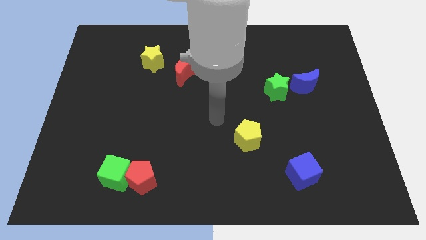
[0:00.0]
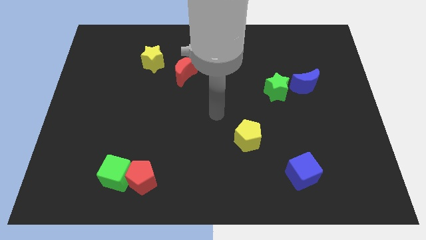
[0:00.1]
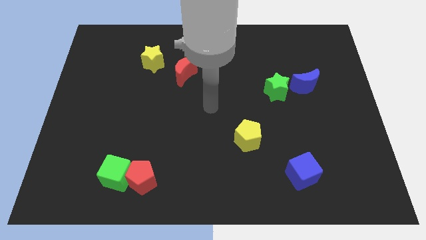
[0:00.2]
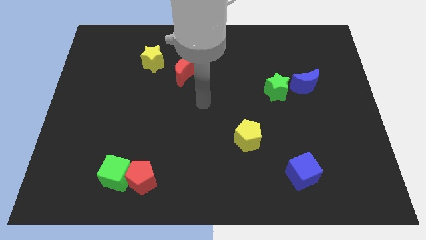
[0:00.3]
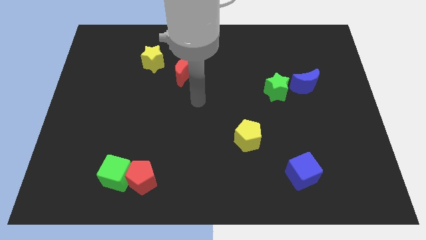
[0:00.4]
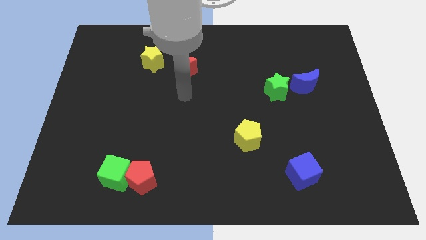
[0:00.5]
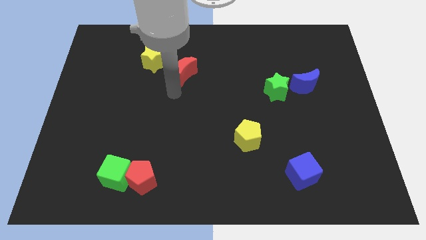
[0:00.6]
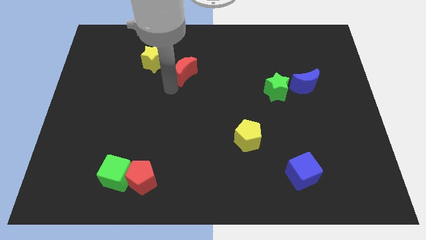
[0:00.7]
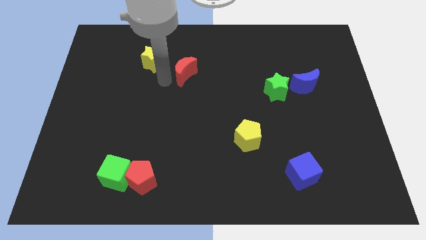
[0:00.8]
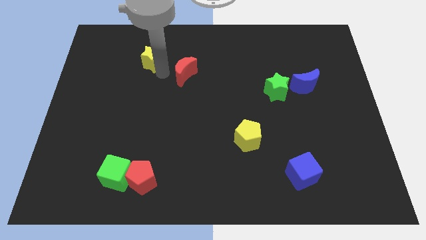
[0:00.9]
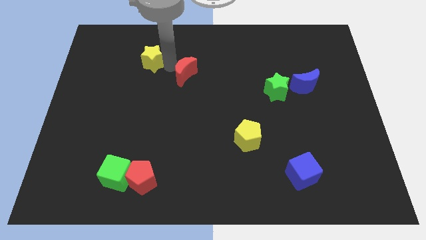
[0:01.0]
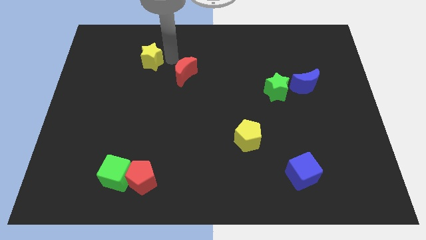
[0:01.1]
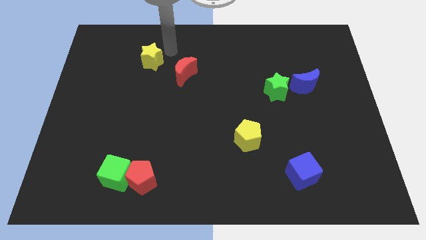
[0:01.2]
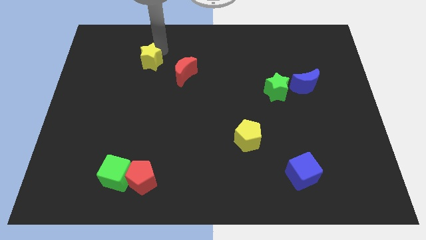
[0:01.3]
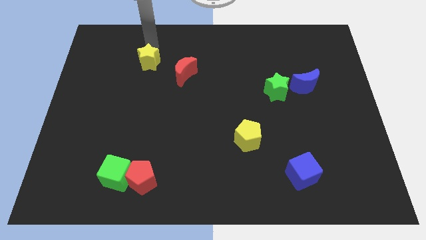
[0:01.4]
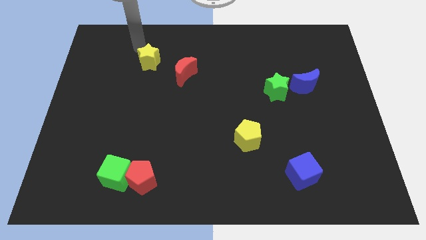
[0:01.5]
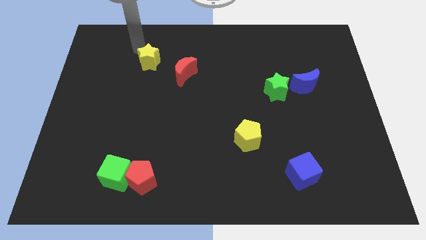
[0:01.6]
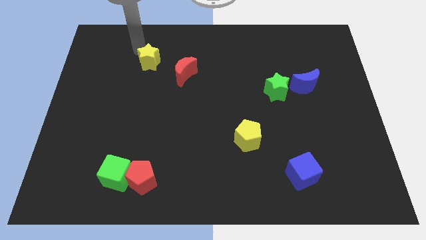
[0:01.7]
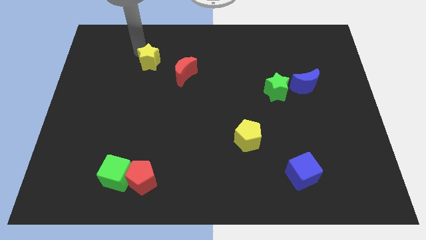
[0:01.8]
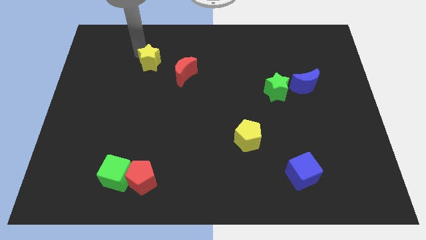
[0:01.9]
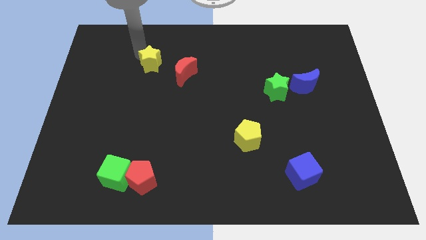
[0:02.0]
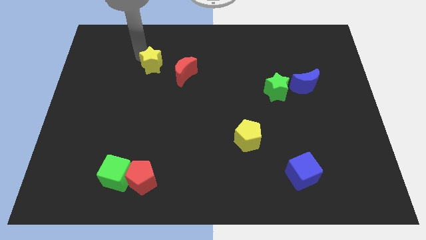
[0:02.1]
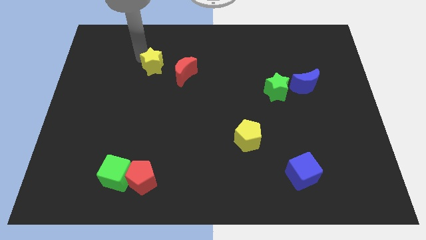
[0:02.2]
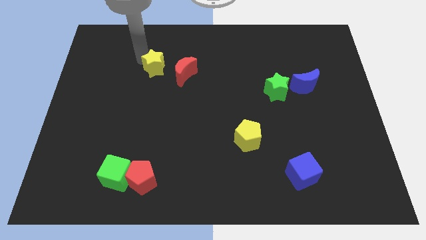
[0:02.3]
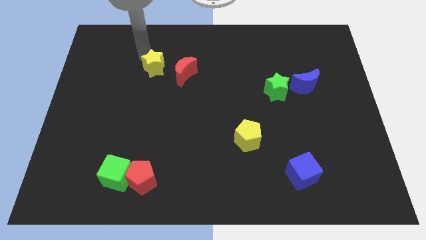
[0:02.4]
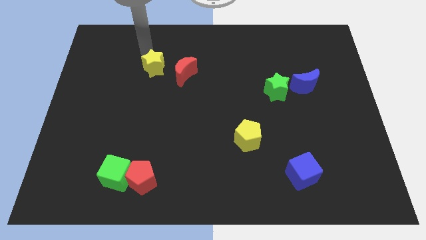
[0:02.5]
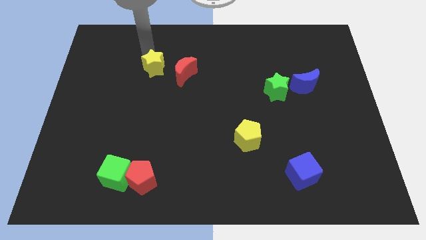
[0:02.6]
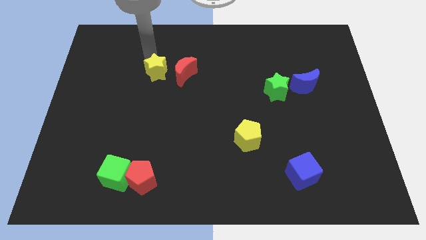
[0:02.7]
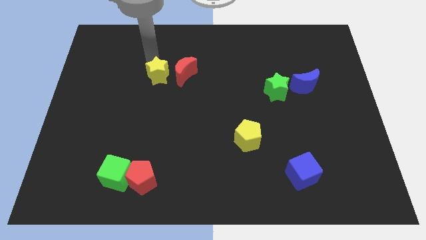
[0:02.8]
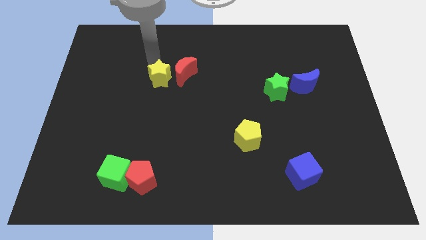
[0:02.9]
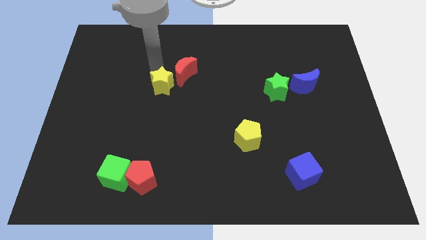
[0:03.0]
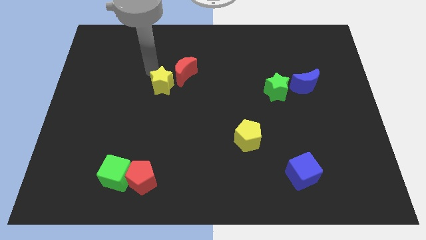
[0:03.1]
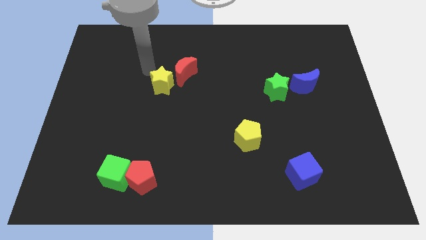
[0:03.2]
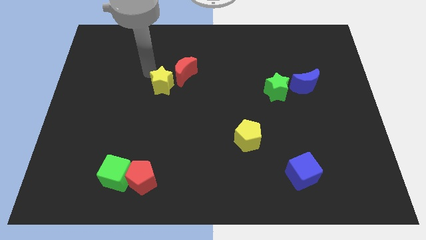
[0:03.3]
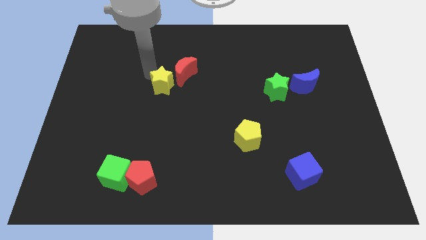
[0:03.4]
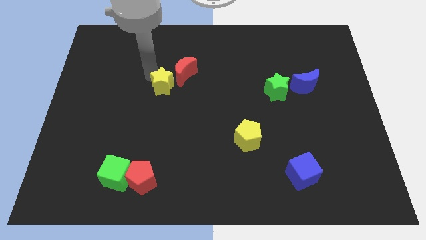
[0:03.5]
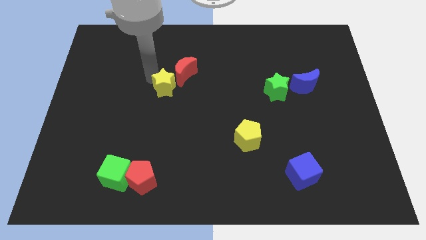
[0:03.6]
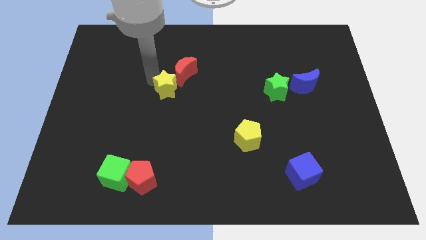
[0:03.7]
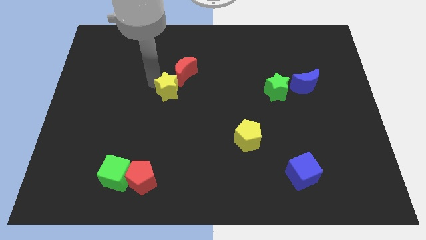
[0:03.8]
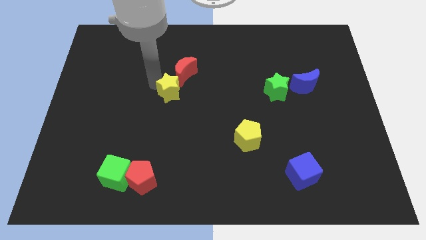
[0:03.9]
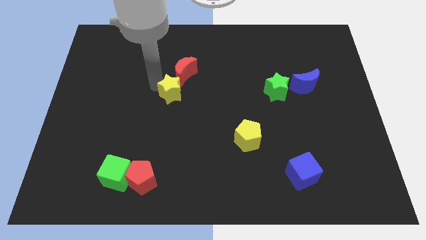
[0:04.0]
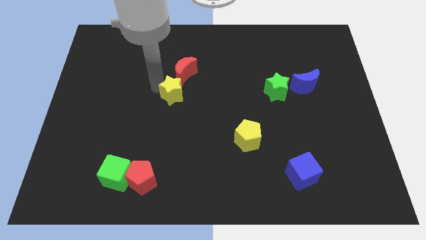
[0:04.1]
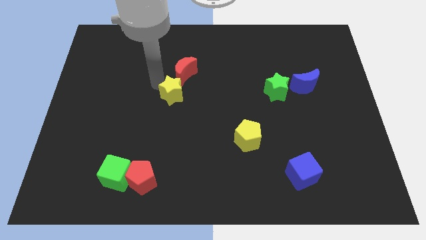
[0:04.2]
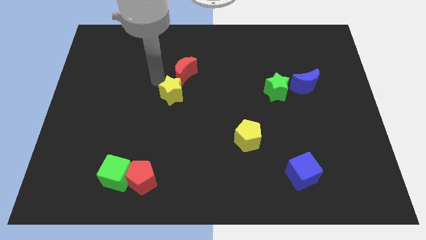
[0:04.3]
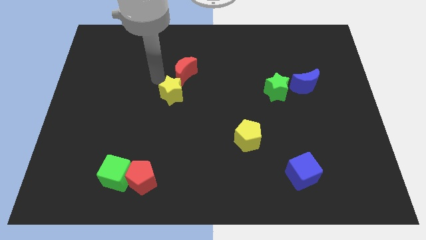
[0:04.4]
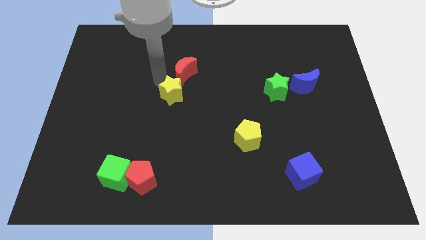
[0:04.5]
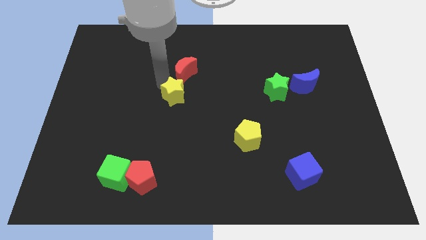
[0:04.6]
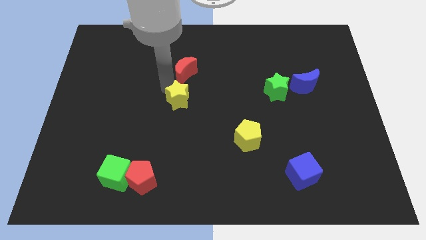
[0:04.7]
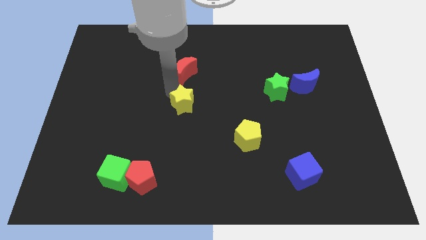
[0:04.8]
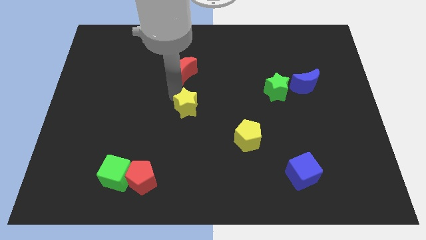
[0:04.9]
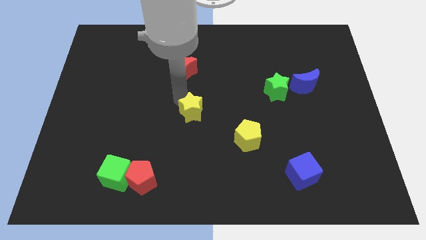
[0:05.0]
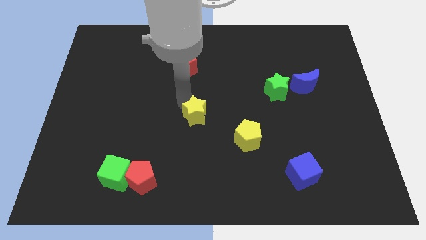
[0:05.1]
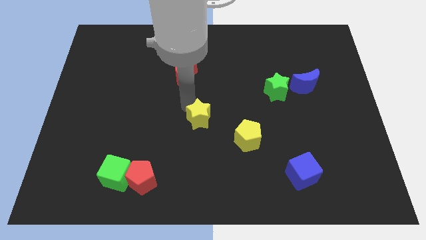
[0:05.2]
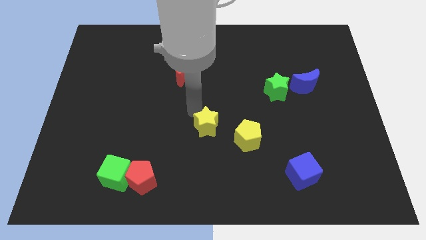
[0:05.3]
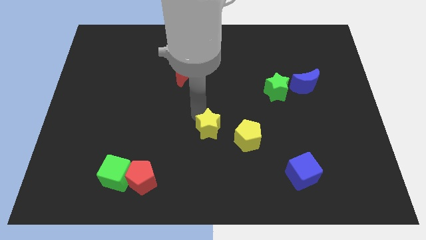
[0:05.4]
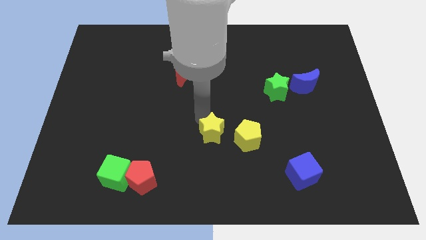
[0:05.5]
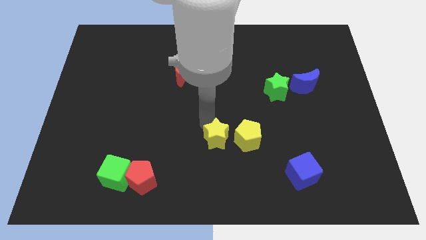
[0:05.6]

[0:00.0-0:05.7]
slide the yellow star diagonally down and to the left of the yellow pentagon

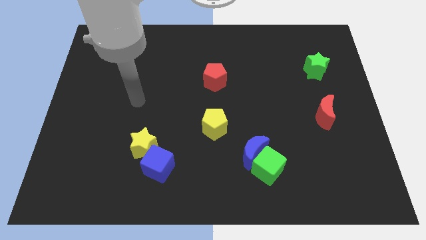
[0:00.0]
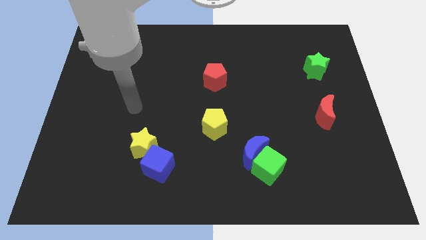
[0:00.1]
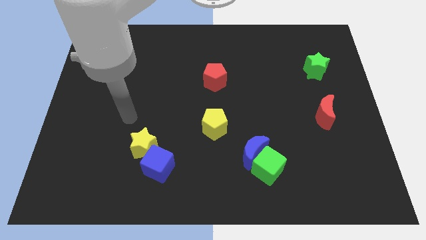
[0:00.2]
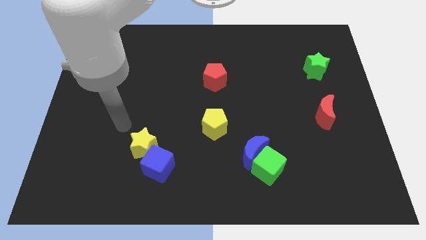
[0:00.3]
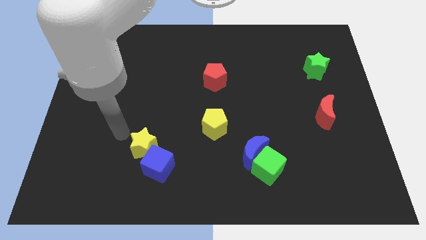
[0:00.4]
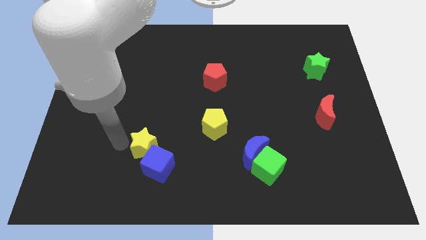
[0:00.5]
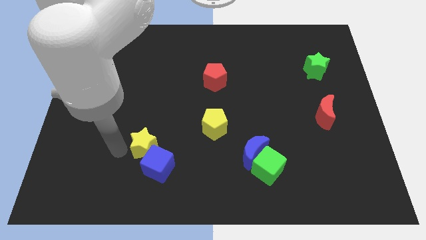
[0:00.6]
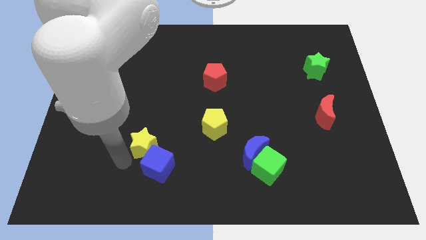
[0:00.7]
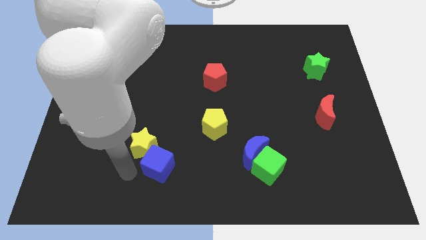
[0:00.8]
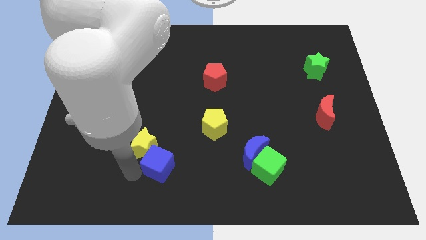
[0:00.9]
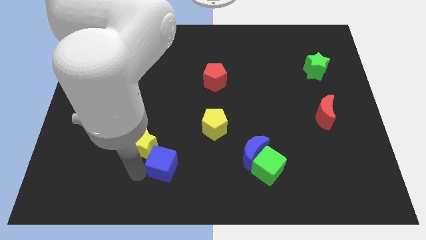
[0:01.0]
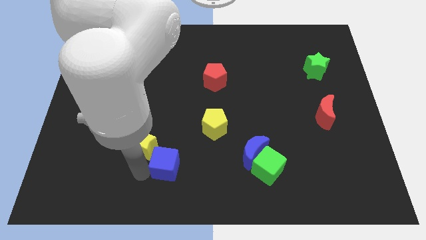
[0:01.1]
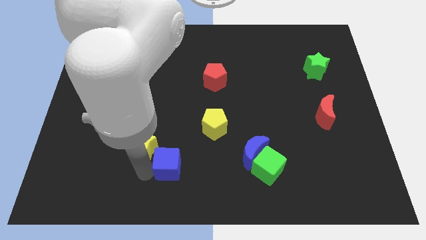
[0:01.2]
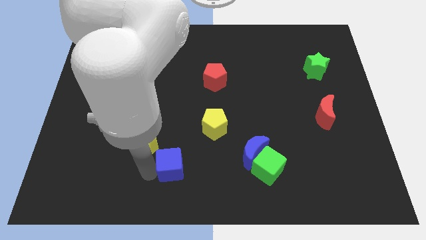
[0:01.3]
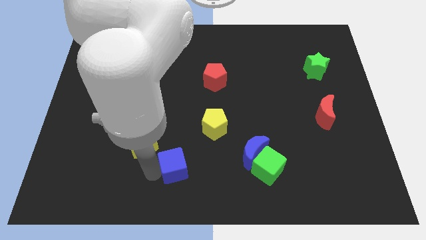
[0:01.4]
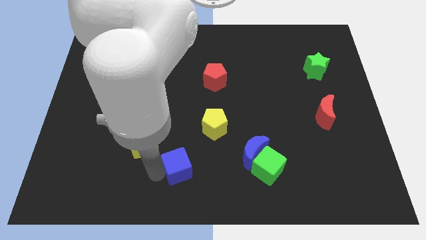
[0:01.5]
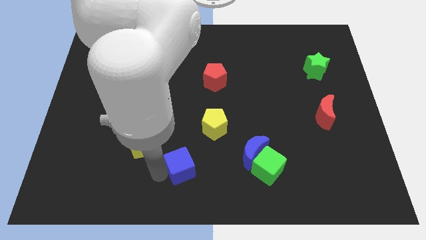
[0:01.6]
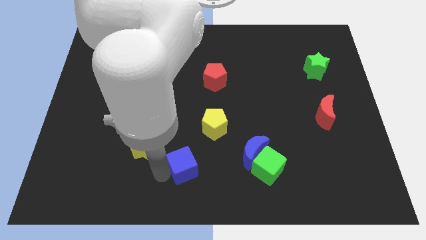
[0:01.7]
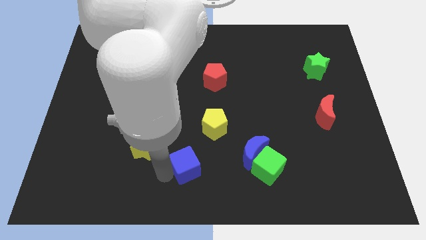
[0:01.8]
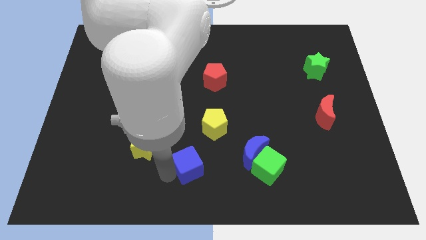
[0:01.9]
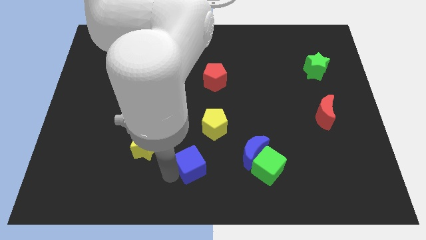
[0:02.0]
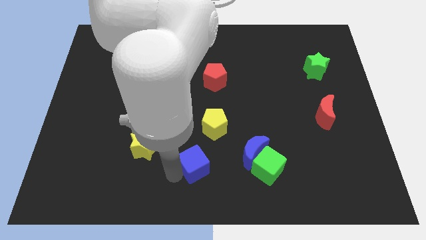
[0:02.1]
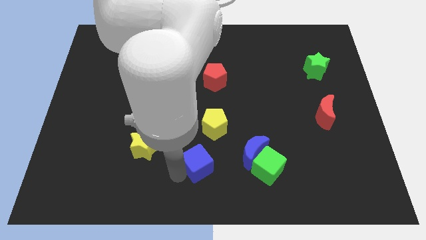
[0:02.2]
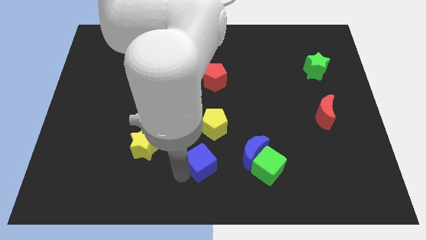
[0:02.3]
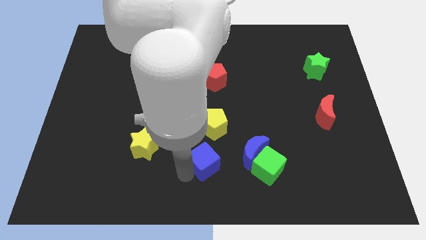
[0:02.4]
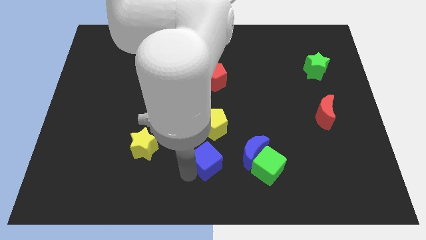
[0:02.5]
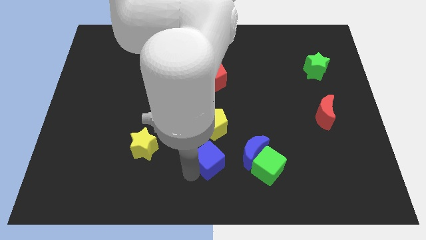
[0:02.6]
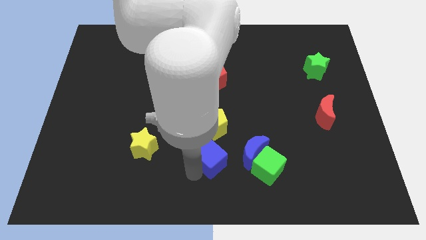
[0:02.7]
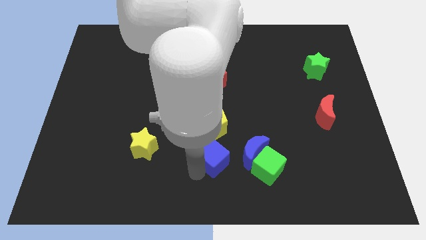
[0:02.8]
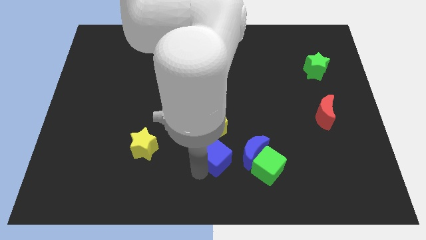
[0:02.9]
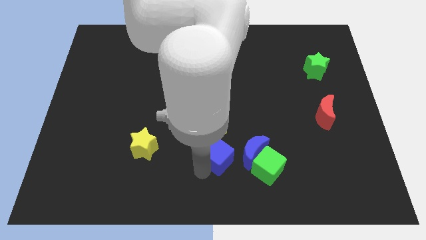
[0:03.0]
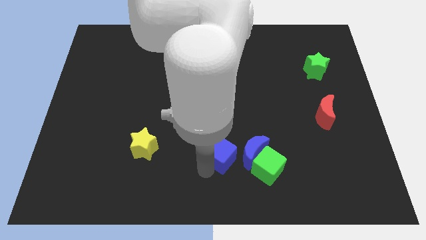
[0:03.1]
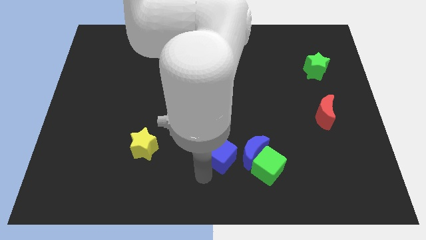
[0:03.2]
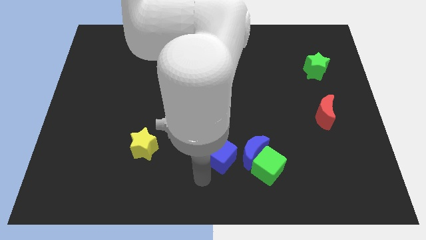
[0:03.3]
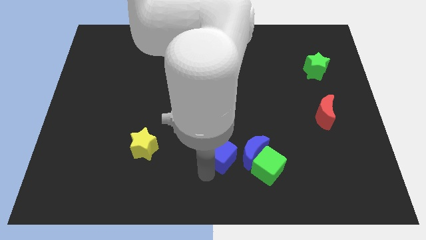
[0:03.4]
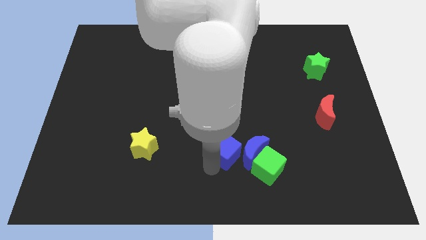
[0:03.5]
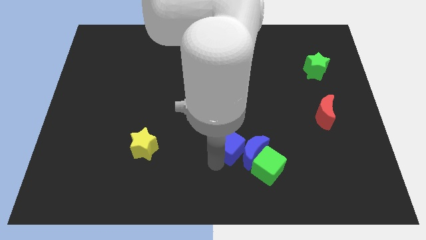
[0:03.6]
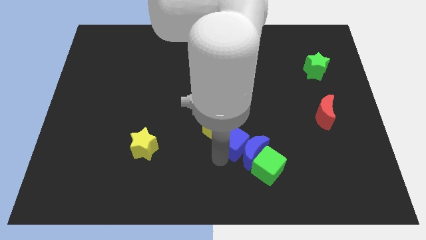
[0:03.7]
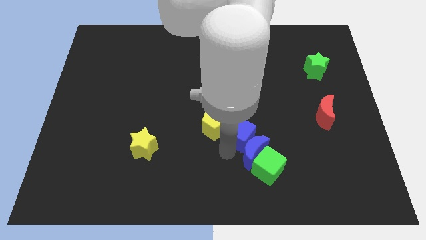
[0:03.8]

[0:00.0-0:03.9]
move the blue cube to the top of the blue moon
